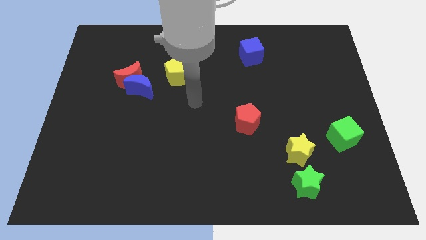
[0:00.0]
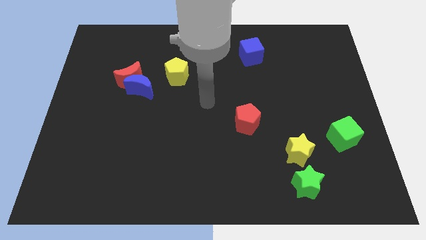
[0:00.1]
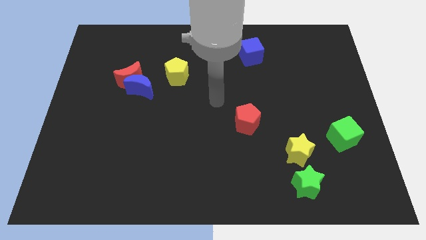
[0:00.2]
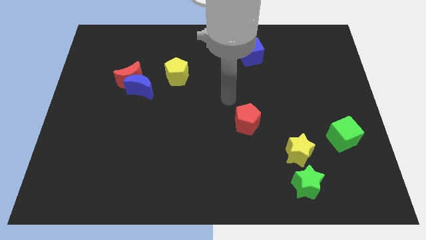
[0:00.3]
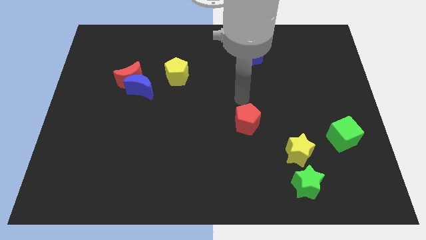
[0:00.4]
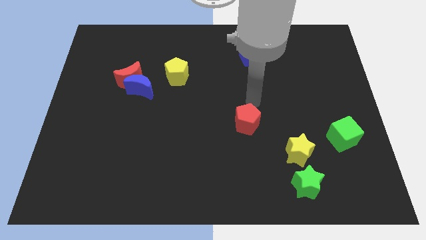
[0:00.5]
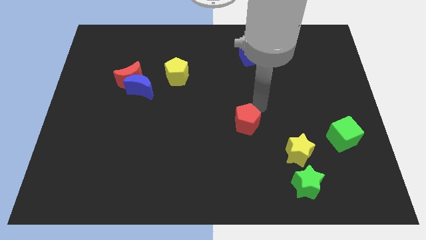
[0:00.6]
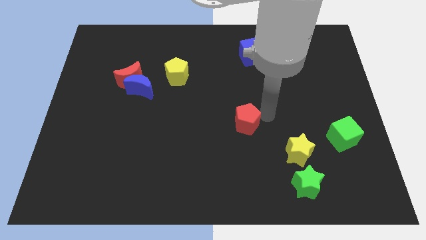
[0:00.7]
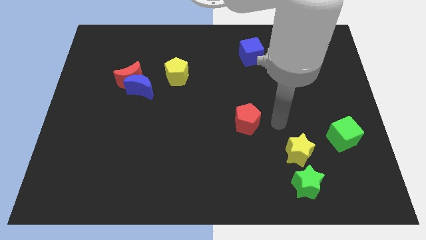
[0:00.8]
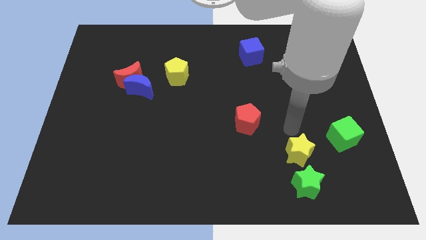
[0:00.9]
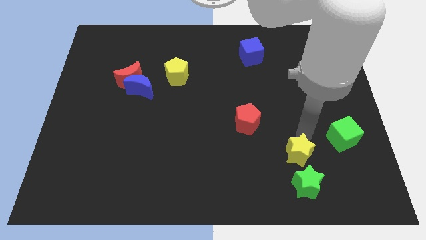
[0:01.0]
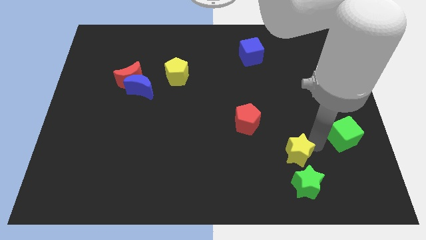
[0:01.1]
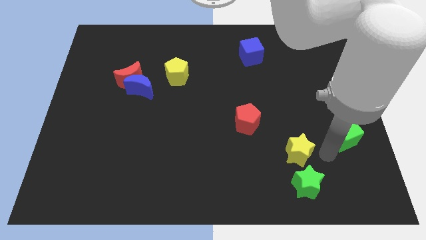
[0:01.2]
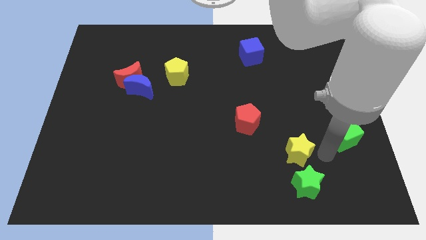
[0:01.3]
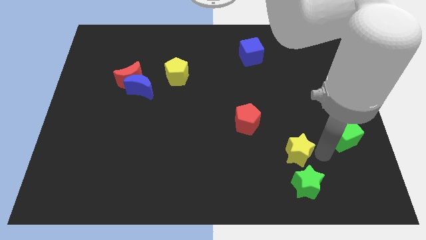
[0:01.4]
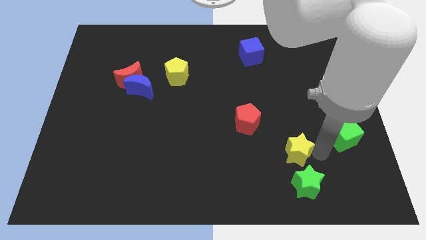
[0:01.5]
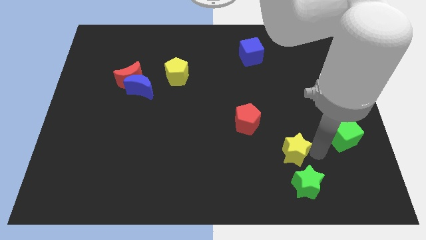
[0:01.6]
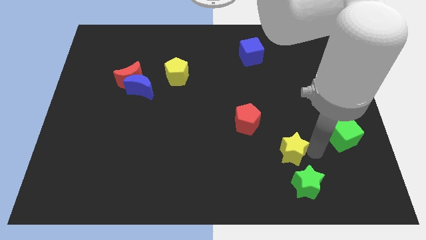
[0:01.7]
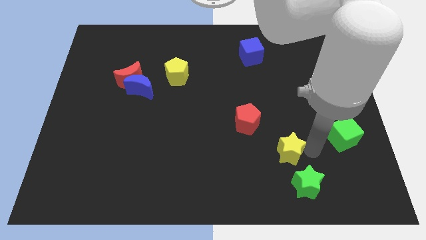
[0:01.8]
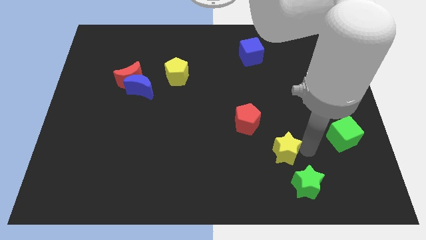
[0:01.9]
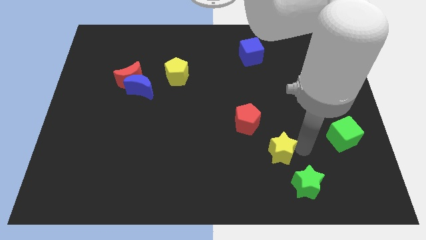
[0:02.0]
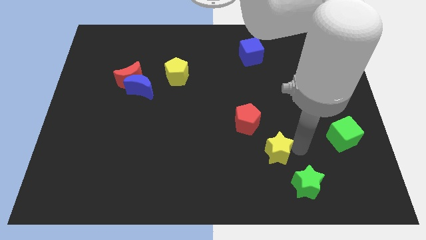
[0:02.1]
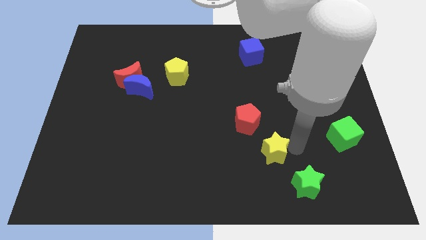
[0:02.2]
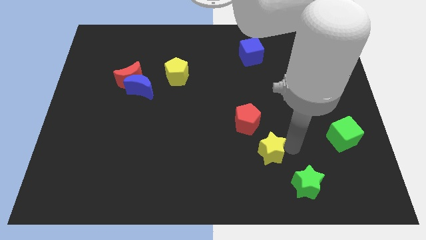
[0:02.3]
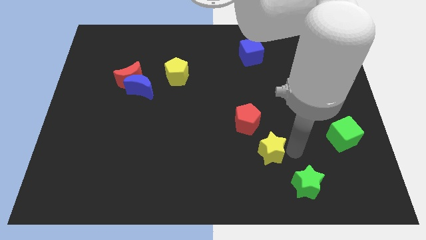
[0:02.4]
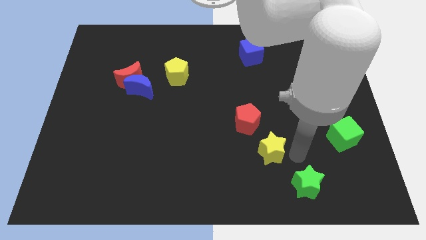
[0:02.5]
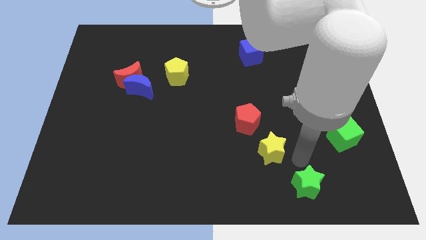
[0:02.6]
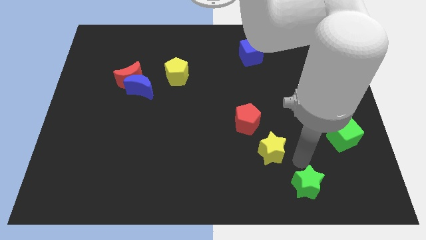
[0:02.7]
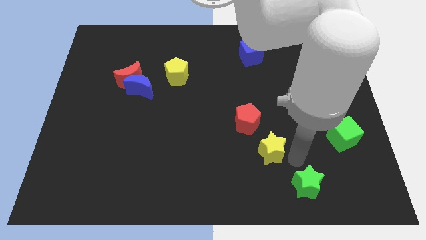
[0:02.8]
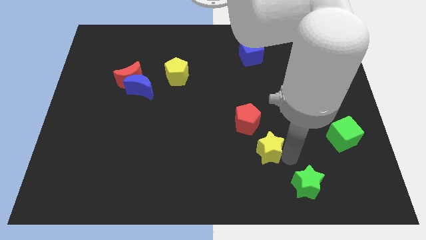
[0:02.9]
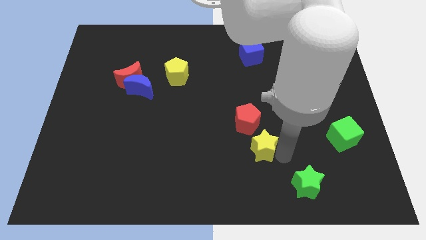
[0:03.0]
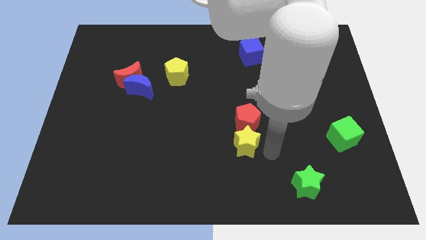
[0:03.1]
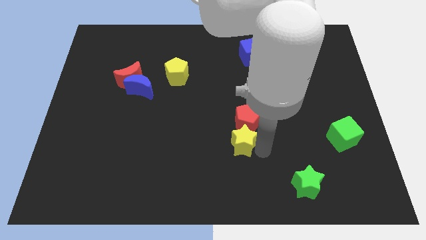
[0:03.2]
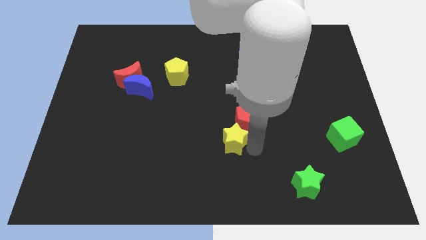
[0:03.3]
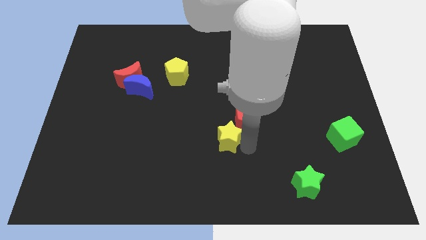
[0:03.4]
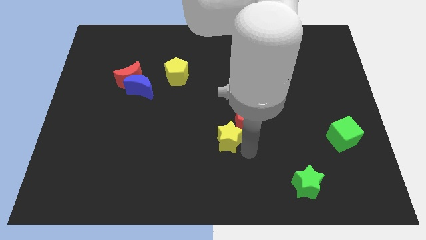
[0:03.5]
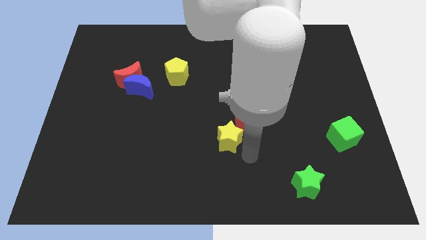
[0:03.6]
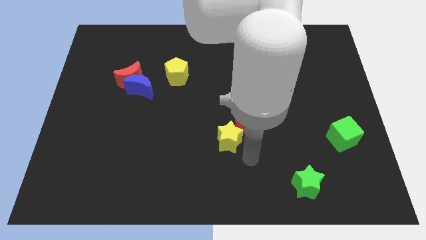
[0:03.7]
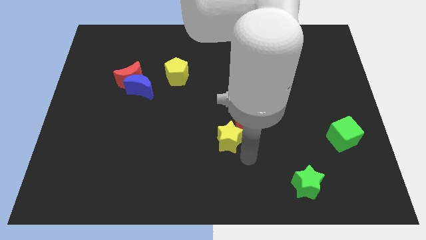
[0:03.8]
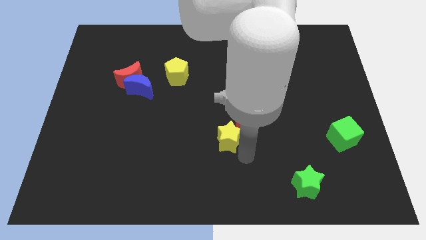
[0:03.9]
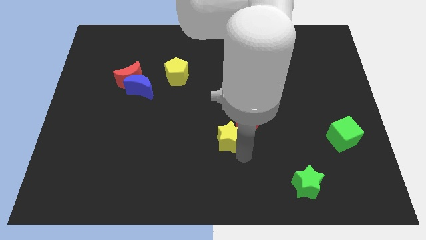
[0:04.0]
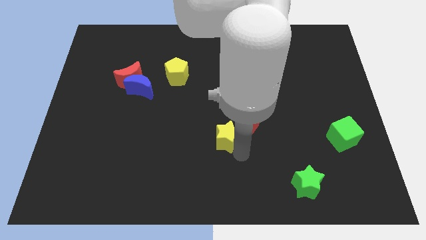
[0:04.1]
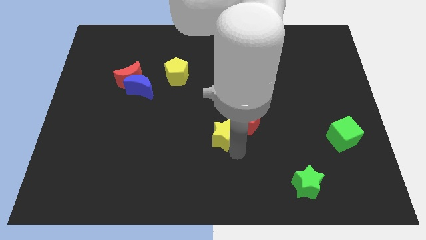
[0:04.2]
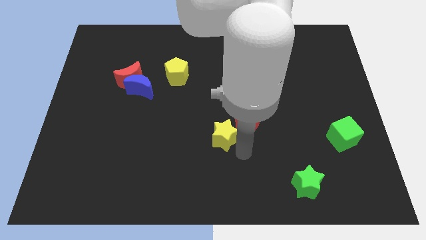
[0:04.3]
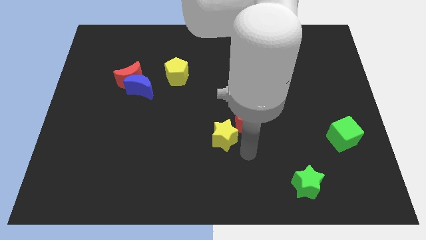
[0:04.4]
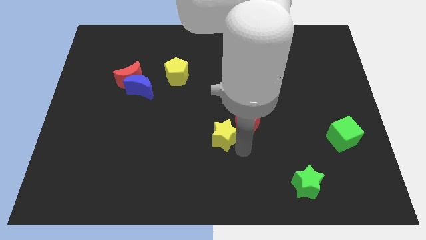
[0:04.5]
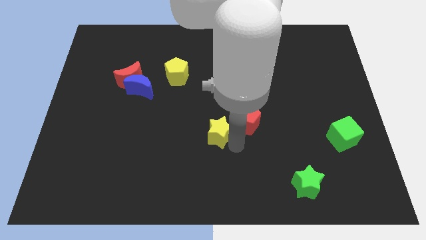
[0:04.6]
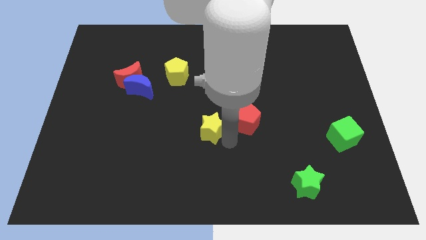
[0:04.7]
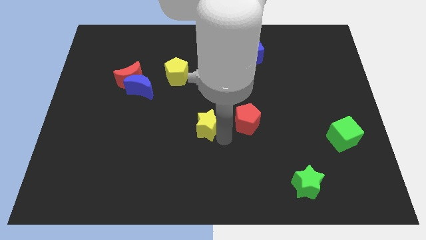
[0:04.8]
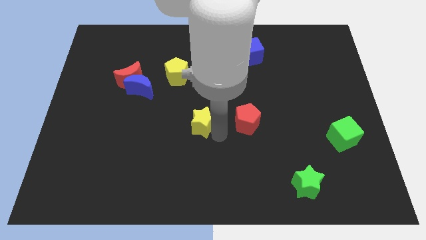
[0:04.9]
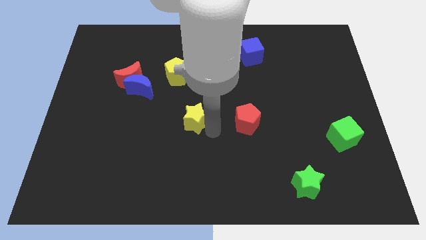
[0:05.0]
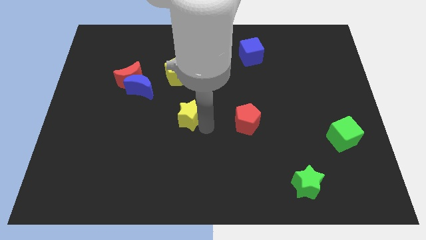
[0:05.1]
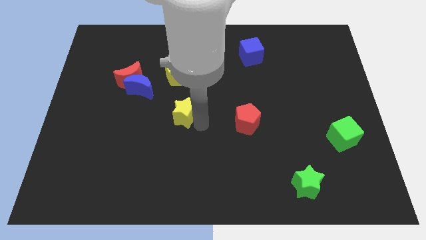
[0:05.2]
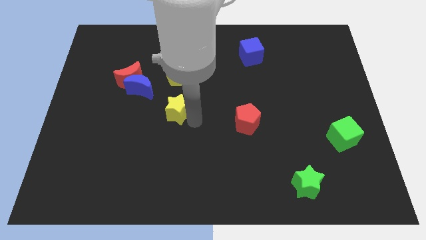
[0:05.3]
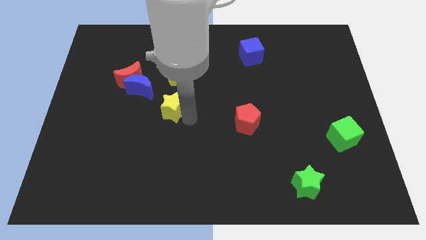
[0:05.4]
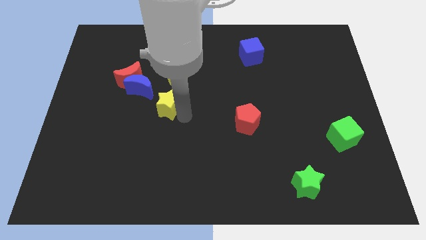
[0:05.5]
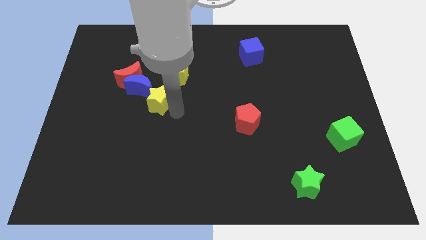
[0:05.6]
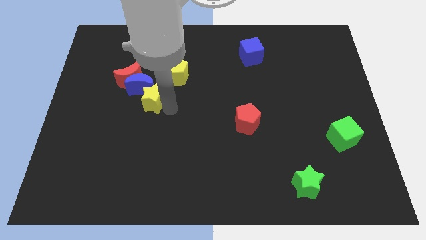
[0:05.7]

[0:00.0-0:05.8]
move the yellow star close to the blue moon

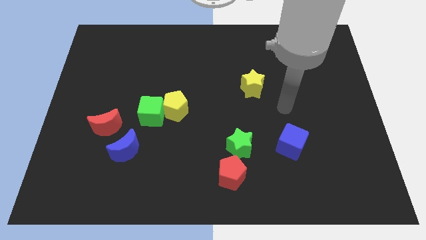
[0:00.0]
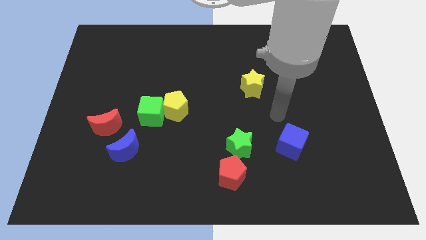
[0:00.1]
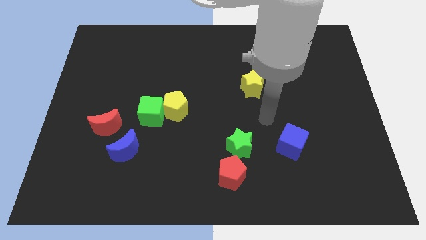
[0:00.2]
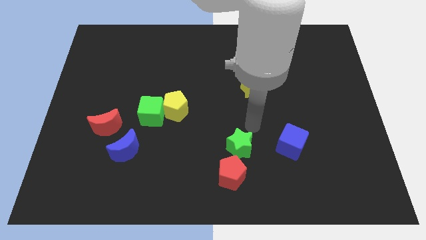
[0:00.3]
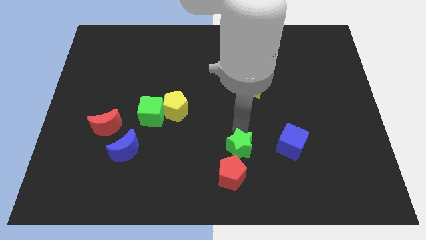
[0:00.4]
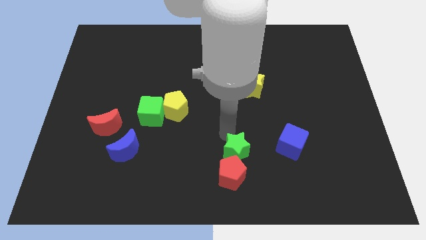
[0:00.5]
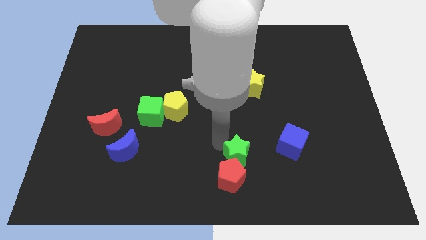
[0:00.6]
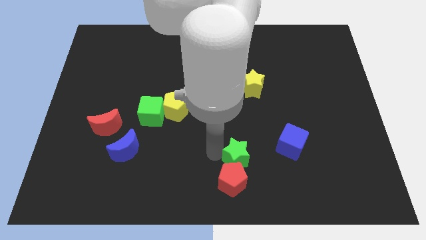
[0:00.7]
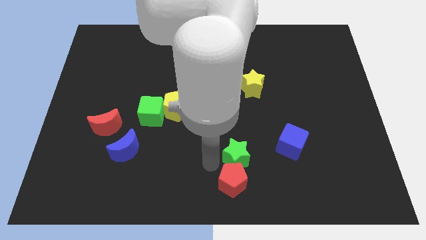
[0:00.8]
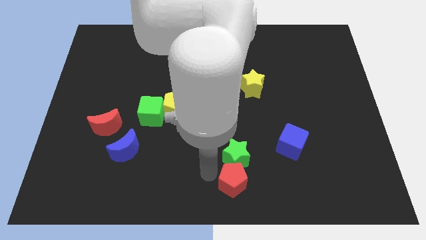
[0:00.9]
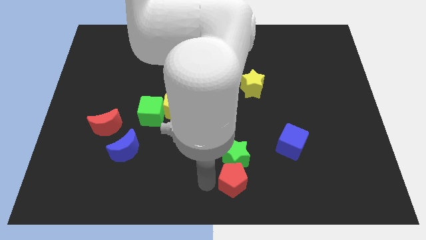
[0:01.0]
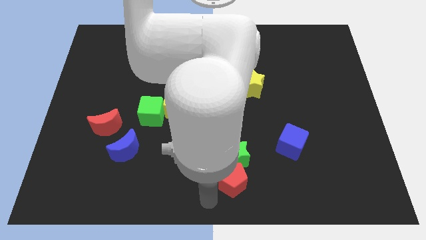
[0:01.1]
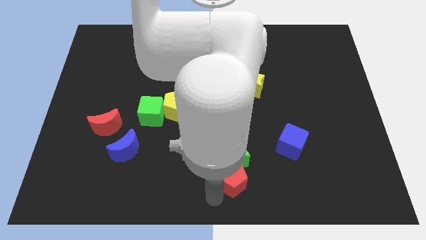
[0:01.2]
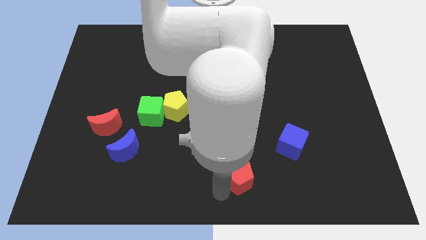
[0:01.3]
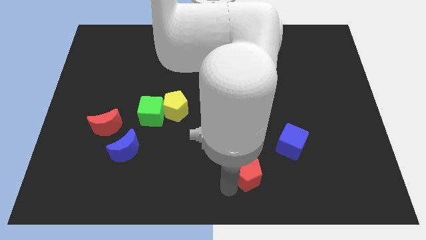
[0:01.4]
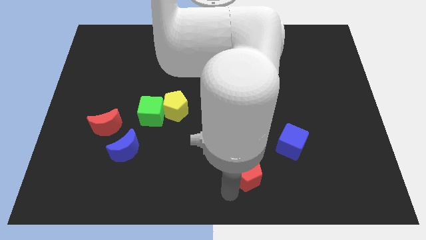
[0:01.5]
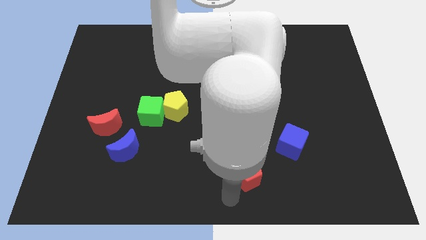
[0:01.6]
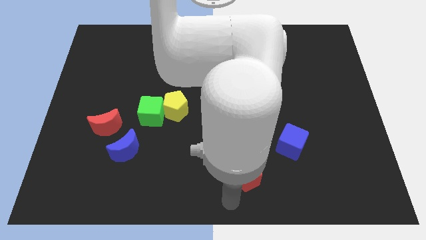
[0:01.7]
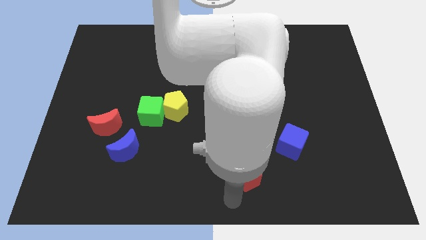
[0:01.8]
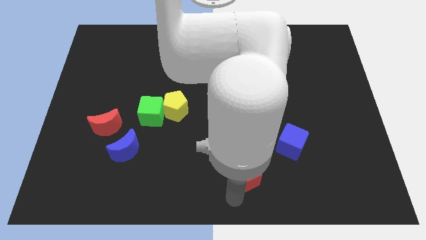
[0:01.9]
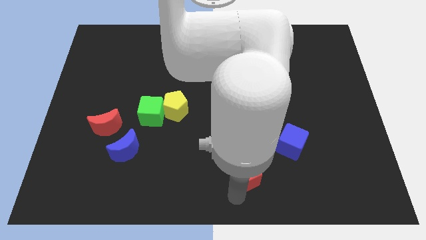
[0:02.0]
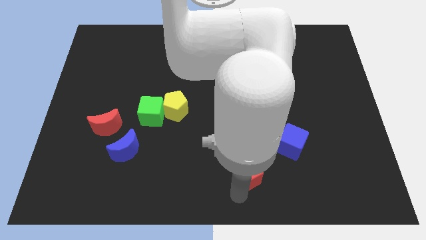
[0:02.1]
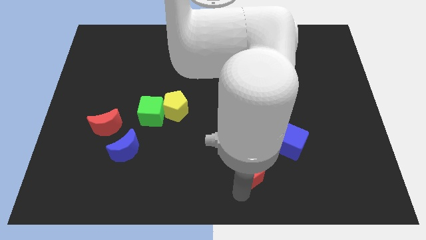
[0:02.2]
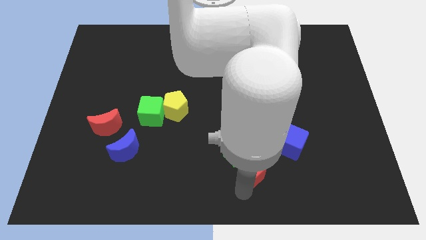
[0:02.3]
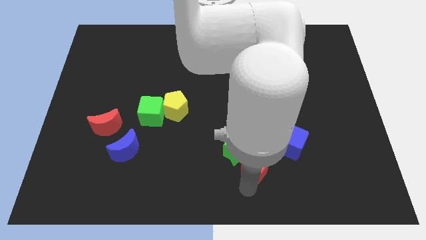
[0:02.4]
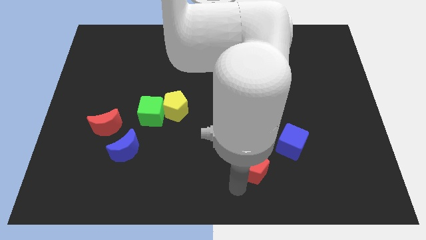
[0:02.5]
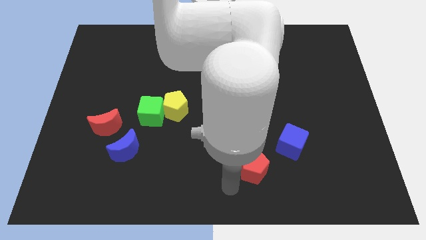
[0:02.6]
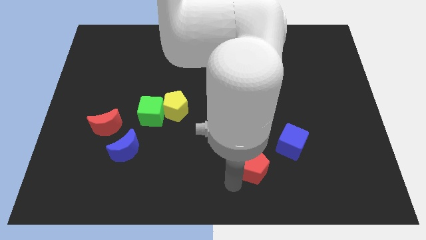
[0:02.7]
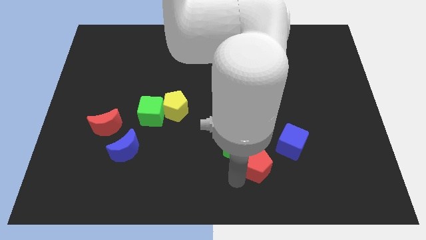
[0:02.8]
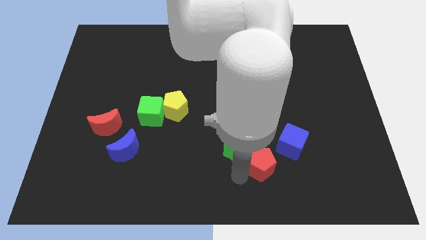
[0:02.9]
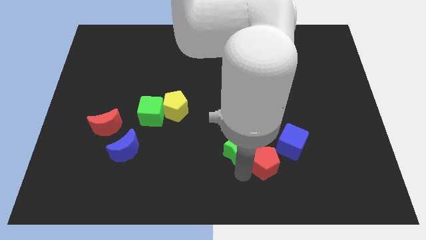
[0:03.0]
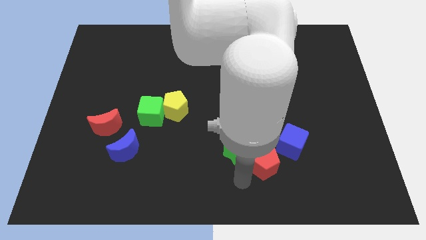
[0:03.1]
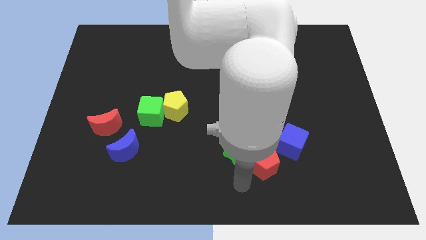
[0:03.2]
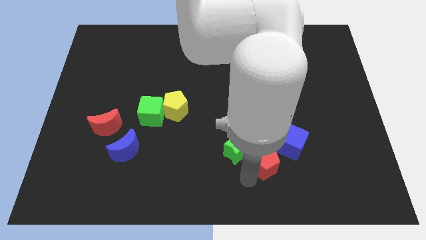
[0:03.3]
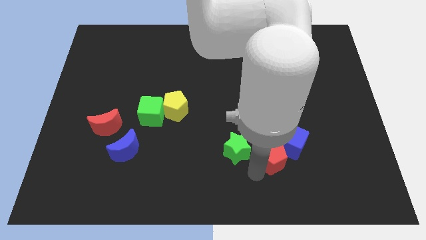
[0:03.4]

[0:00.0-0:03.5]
put the red pentagon close to the blue cube
